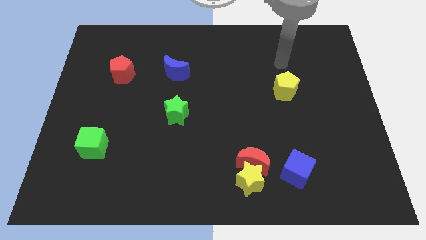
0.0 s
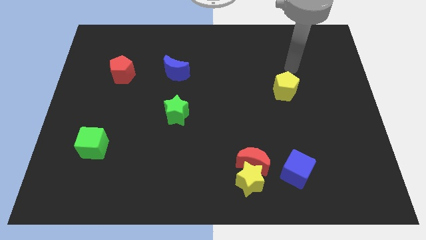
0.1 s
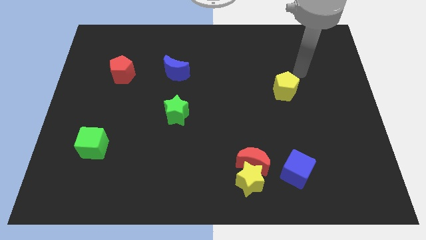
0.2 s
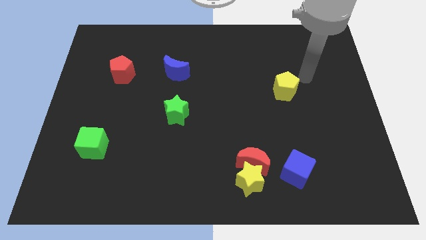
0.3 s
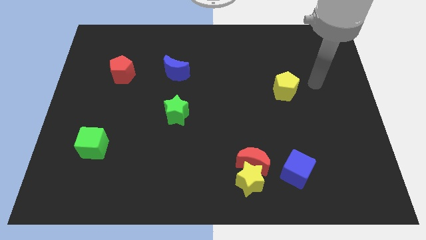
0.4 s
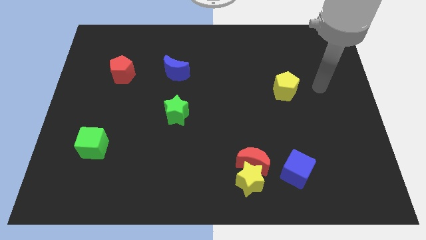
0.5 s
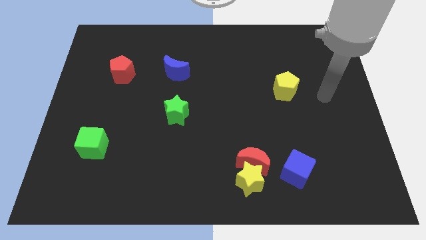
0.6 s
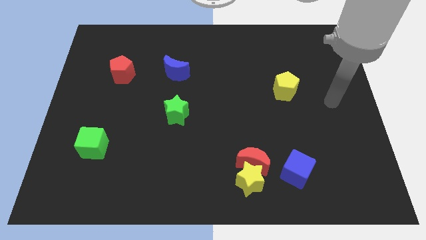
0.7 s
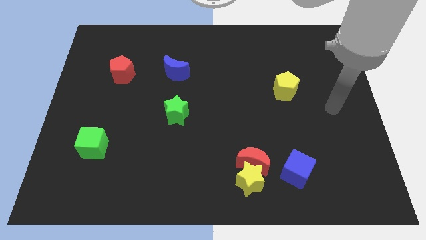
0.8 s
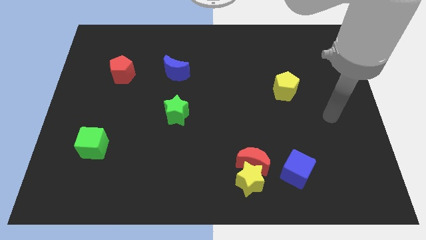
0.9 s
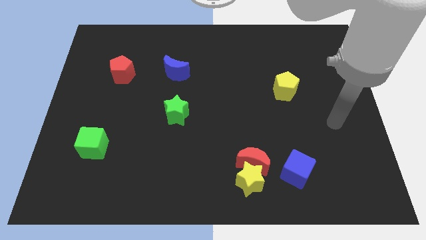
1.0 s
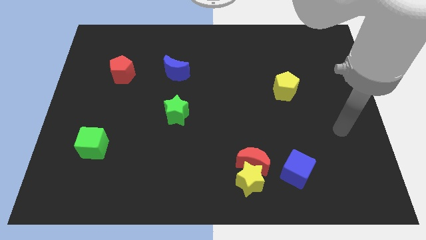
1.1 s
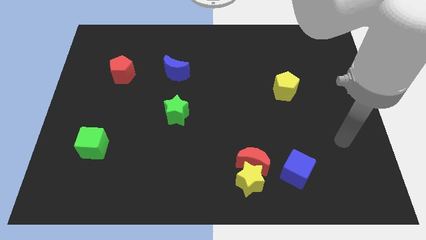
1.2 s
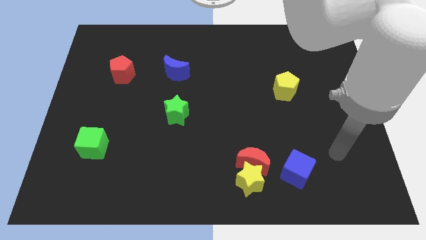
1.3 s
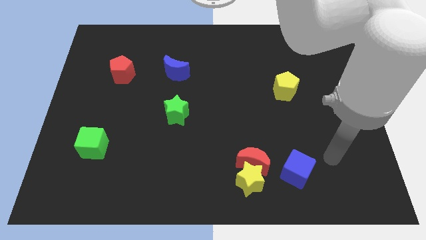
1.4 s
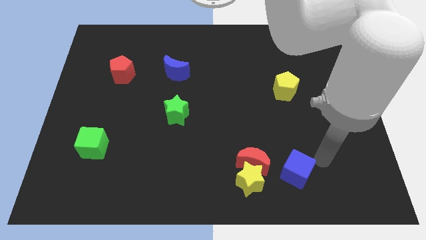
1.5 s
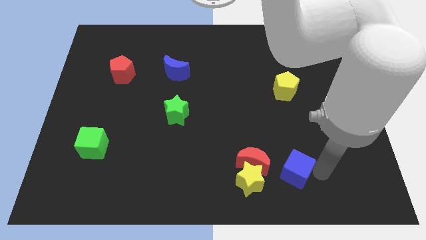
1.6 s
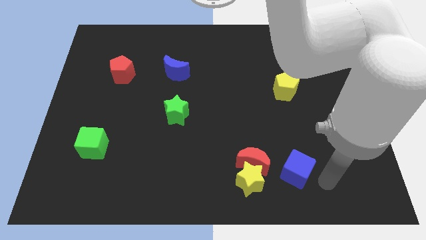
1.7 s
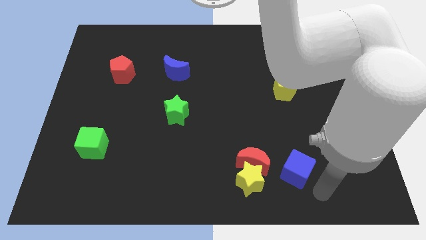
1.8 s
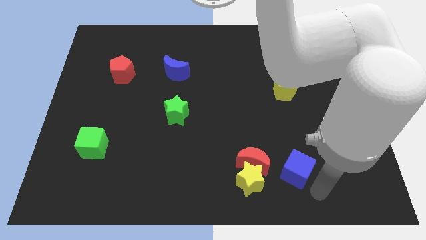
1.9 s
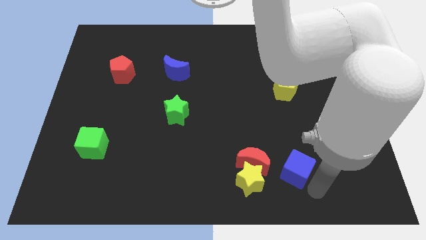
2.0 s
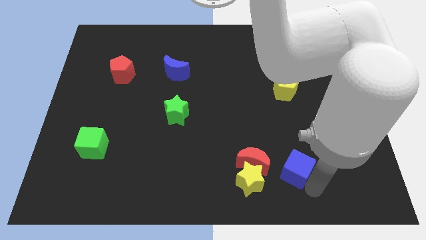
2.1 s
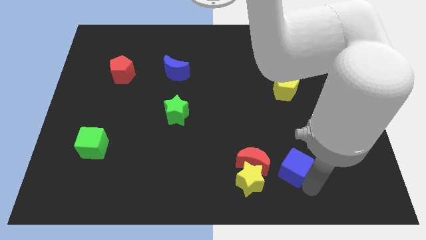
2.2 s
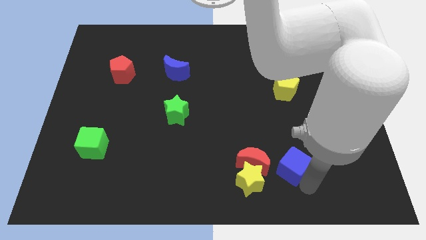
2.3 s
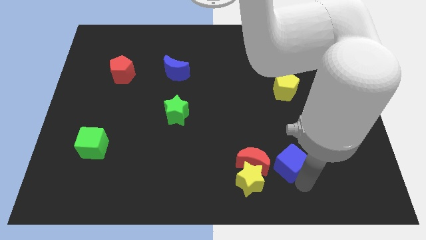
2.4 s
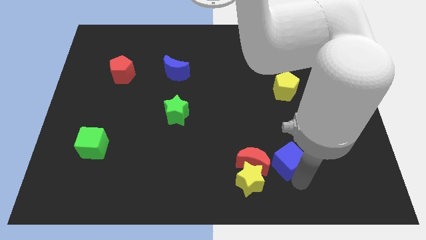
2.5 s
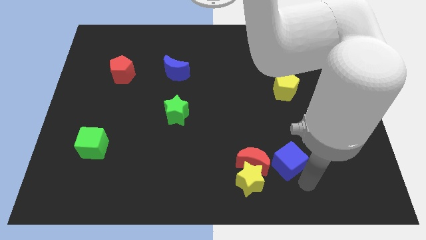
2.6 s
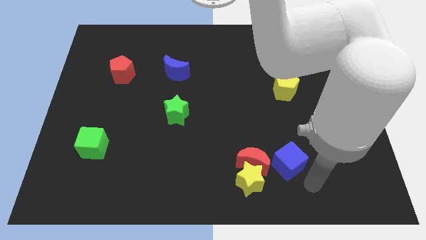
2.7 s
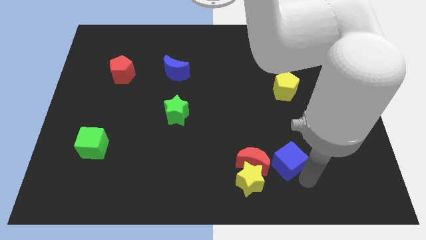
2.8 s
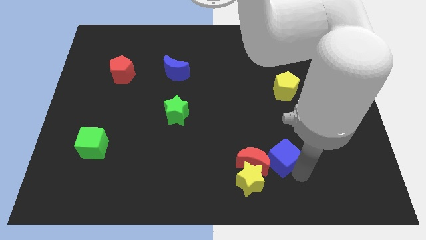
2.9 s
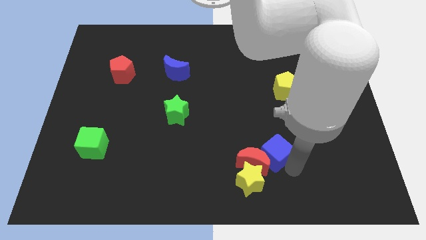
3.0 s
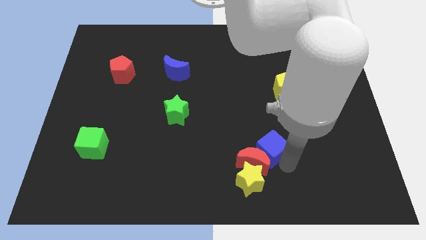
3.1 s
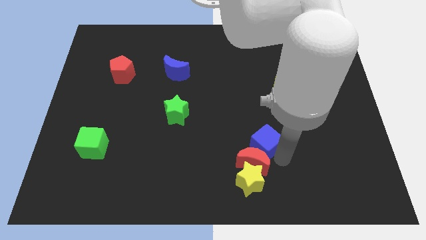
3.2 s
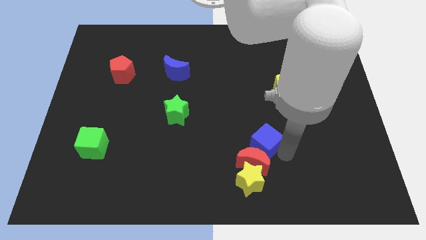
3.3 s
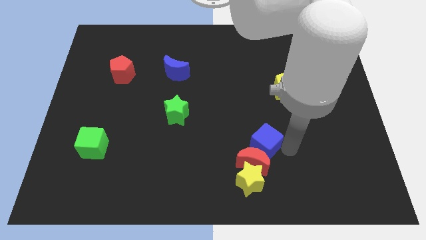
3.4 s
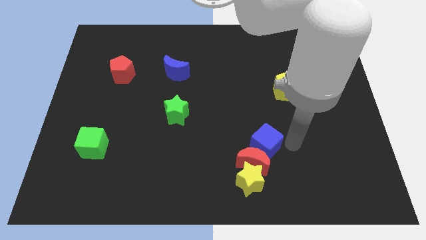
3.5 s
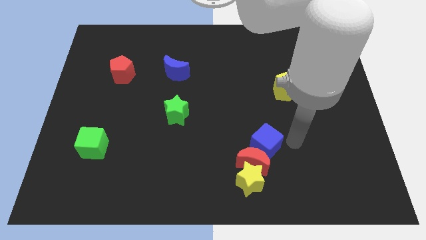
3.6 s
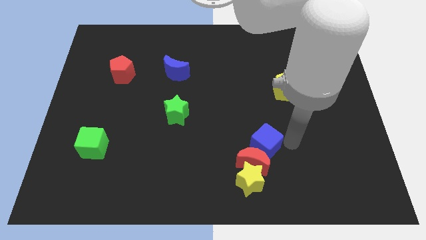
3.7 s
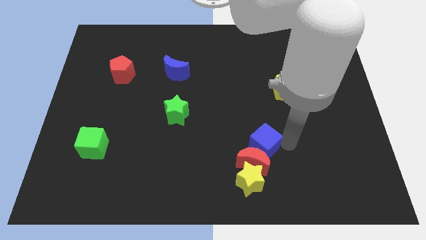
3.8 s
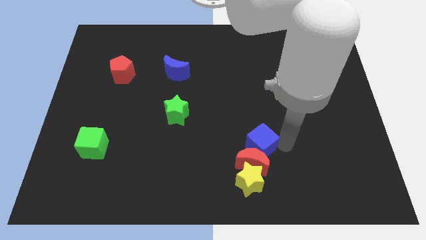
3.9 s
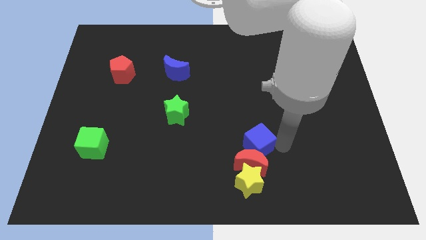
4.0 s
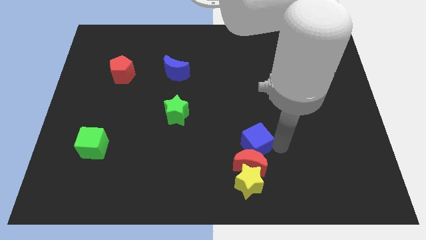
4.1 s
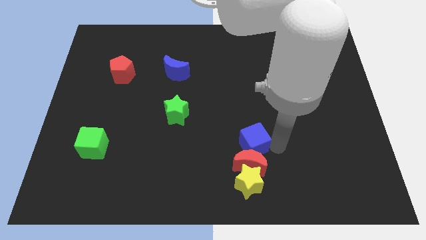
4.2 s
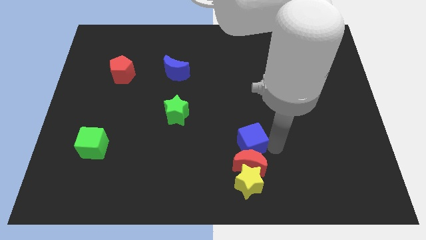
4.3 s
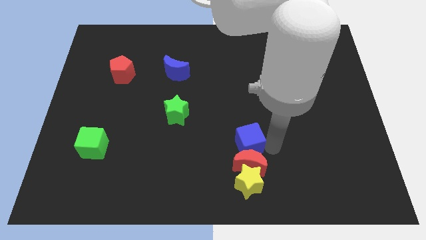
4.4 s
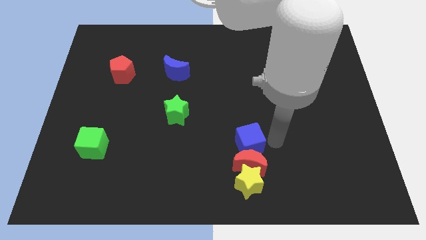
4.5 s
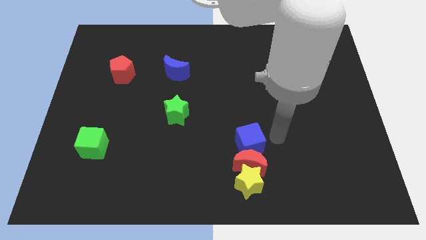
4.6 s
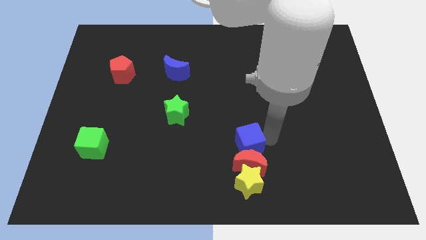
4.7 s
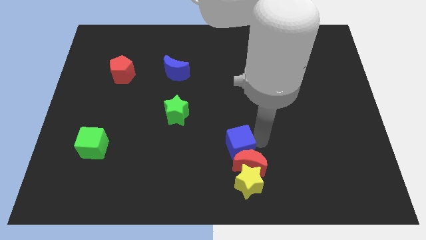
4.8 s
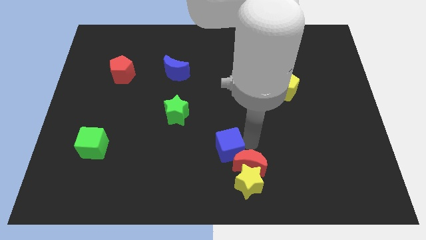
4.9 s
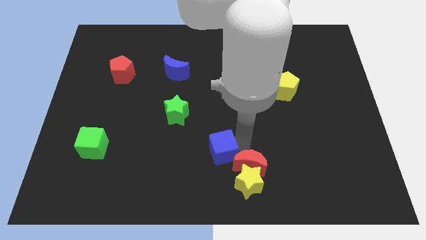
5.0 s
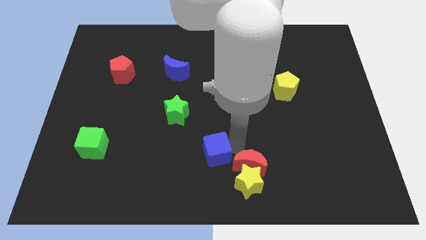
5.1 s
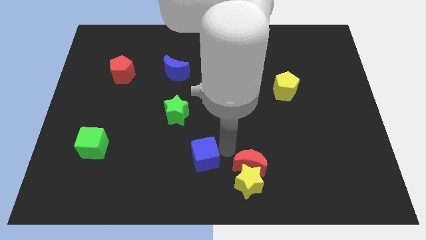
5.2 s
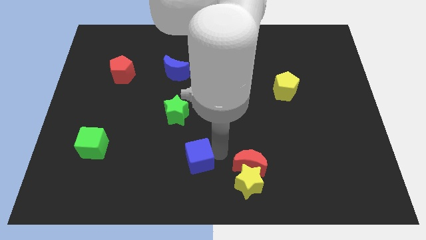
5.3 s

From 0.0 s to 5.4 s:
slide the blue cube left

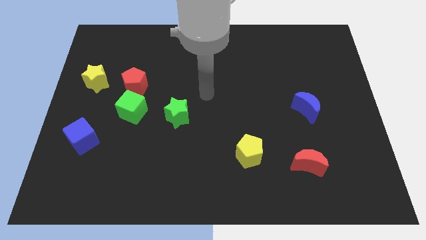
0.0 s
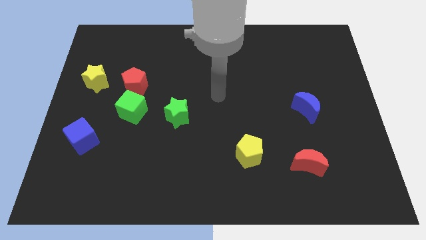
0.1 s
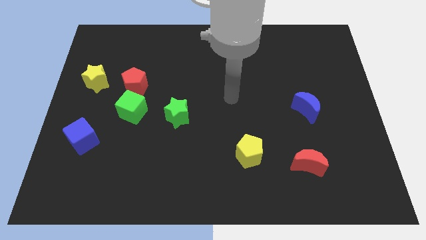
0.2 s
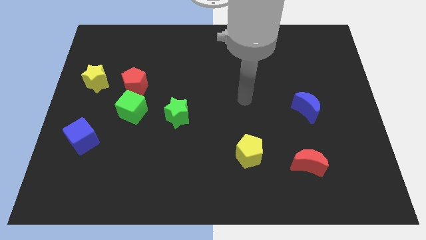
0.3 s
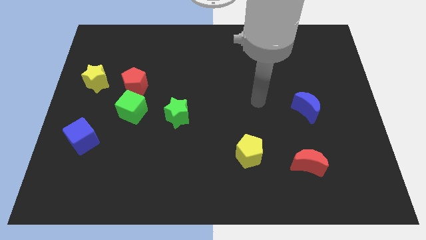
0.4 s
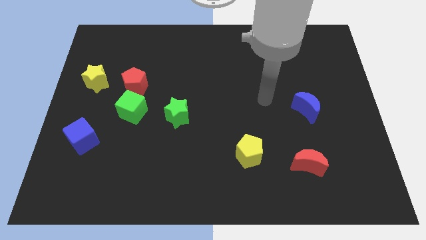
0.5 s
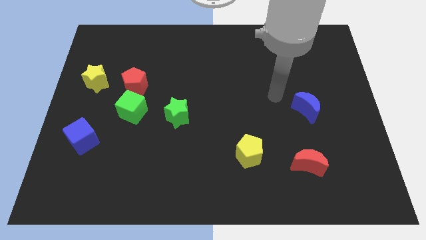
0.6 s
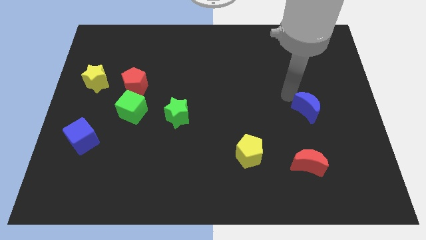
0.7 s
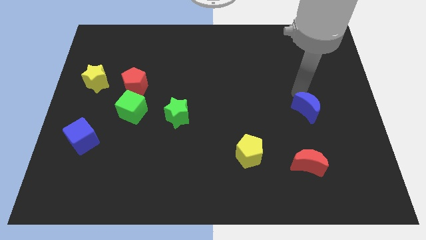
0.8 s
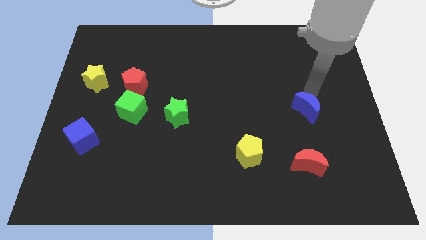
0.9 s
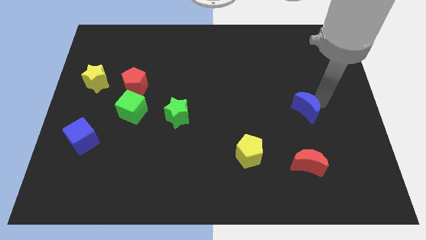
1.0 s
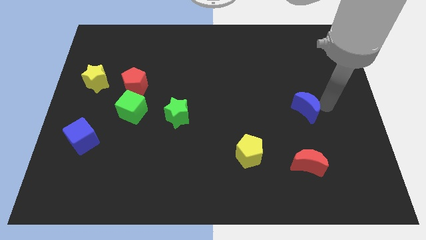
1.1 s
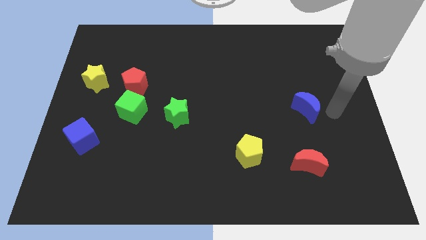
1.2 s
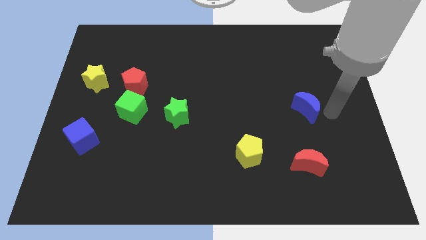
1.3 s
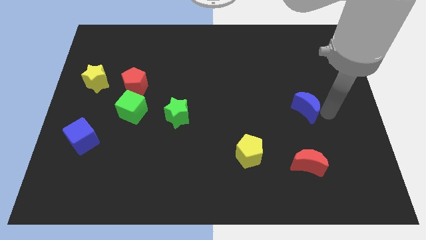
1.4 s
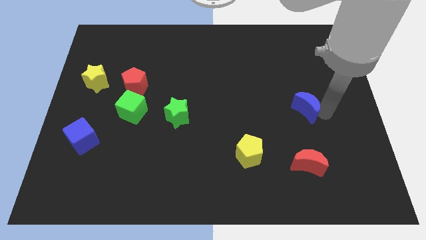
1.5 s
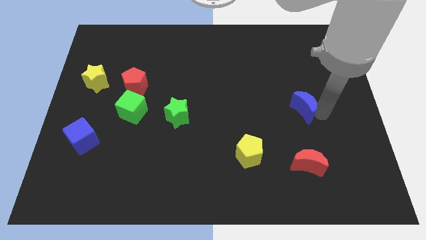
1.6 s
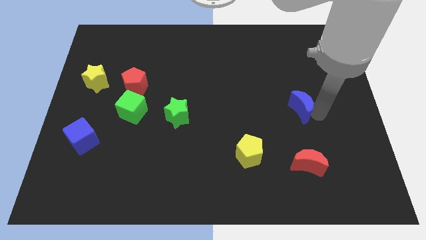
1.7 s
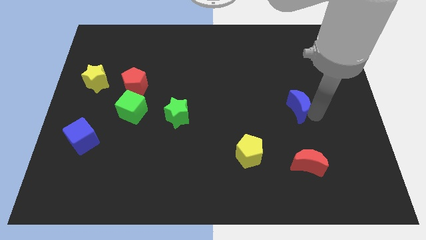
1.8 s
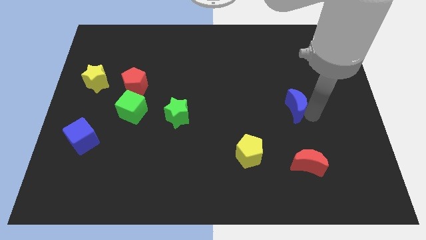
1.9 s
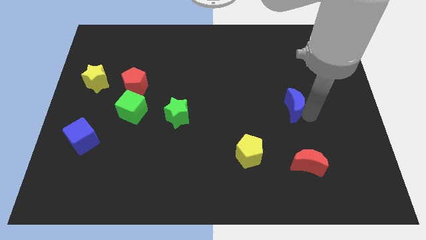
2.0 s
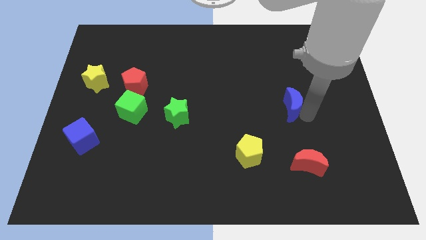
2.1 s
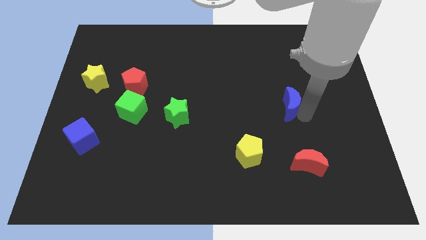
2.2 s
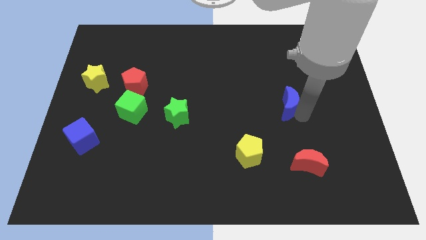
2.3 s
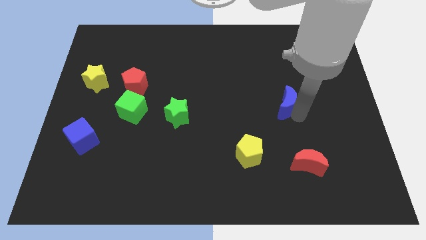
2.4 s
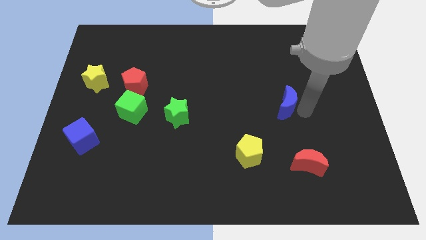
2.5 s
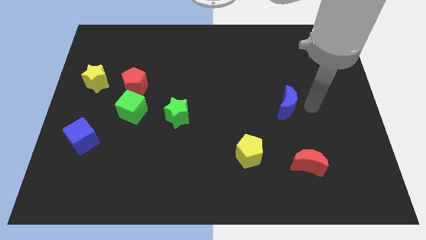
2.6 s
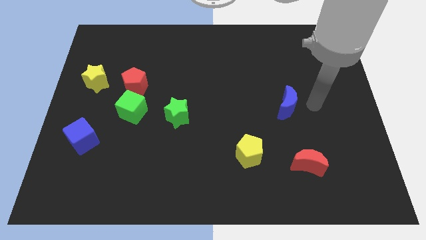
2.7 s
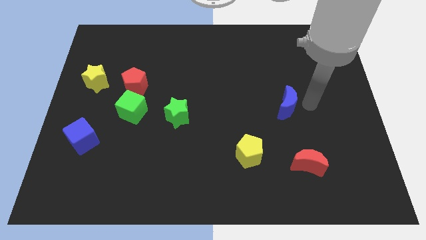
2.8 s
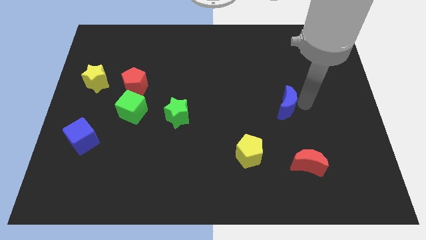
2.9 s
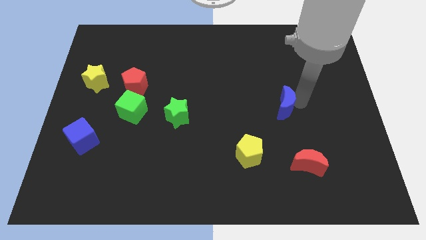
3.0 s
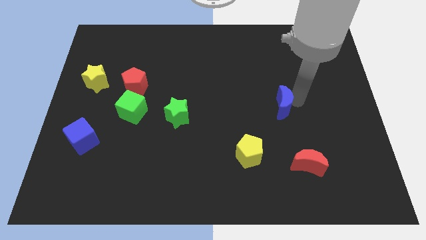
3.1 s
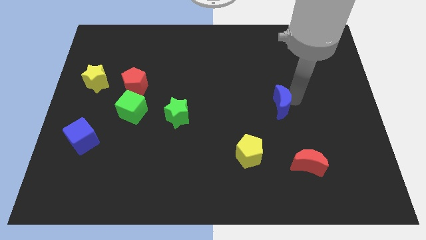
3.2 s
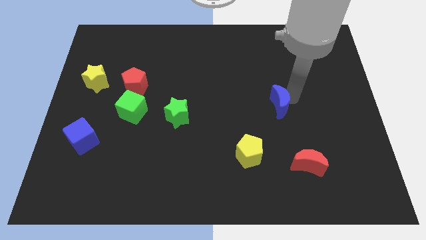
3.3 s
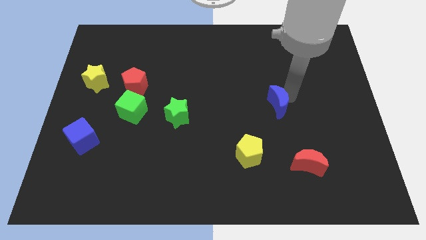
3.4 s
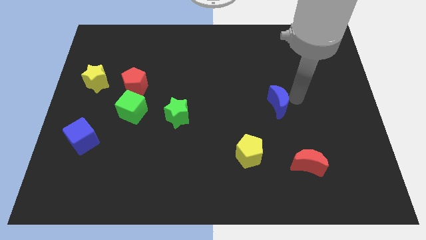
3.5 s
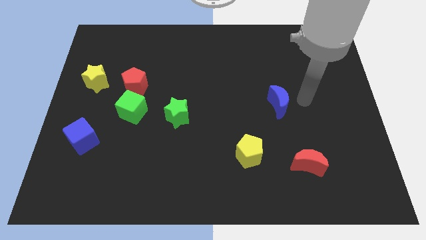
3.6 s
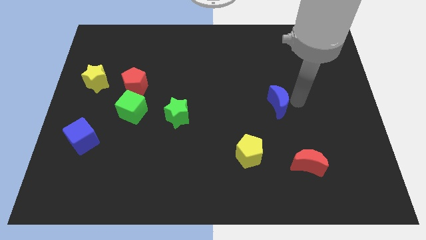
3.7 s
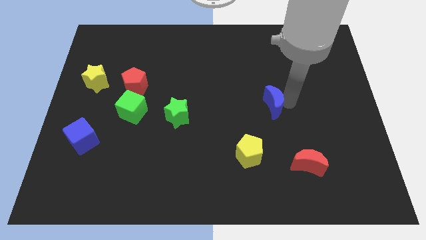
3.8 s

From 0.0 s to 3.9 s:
push the blue moon to the left slightly
